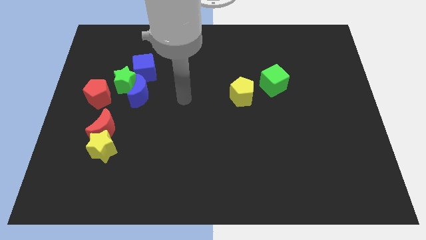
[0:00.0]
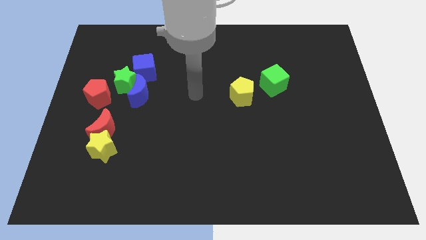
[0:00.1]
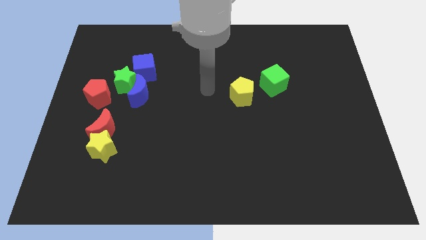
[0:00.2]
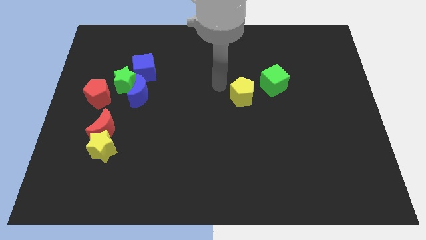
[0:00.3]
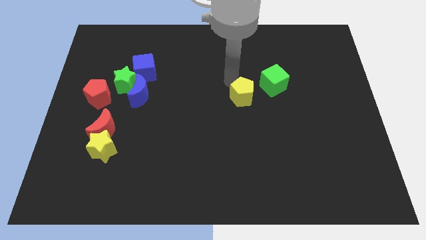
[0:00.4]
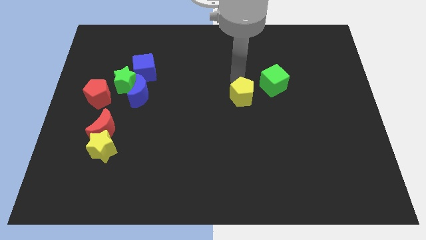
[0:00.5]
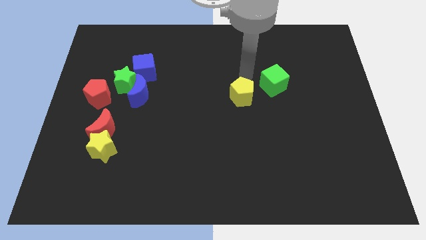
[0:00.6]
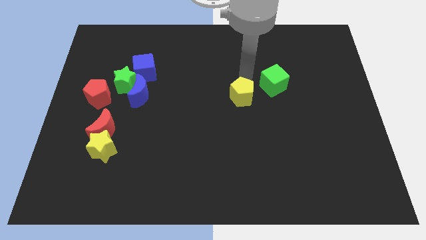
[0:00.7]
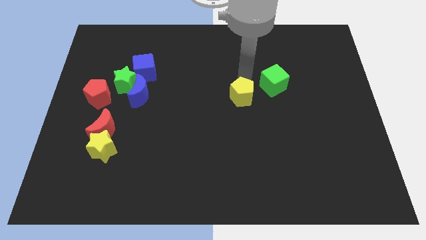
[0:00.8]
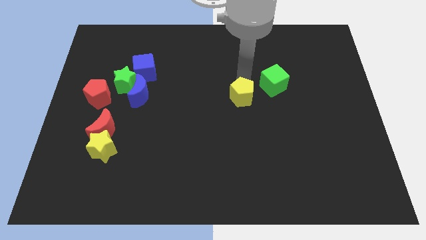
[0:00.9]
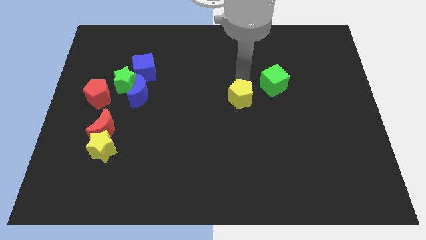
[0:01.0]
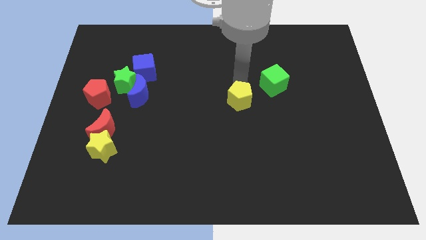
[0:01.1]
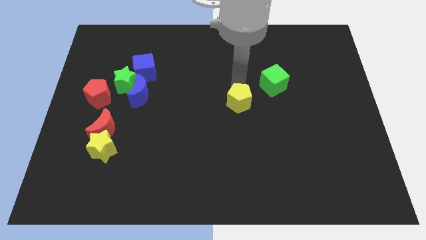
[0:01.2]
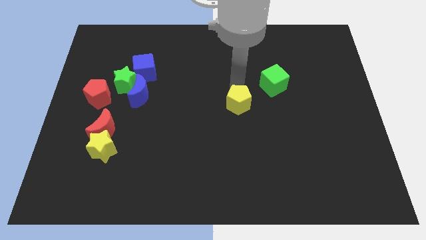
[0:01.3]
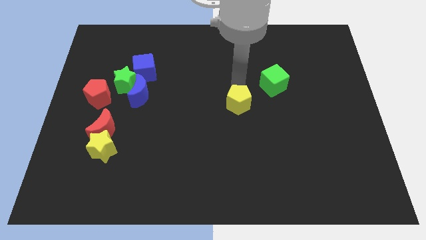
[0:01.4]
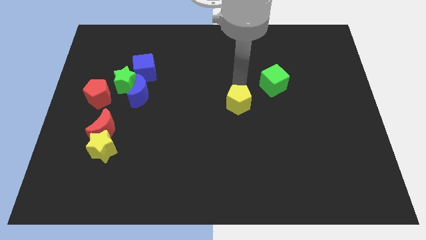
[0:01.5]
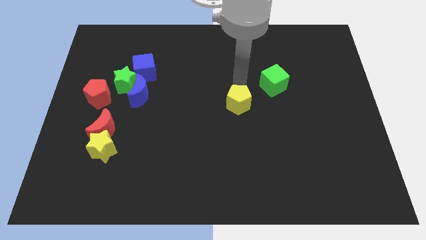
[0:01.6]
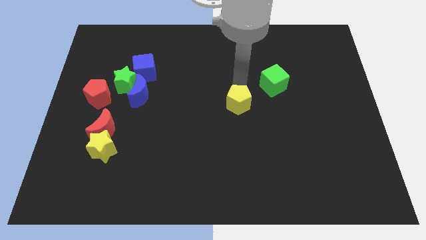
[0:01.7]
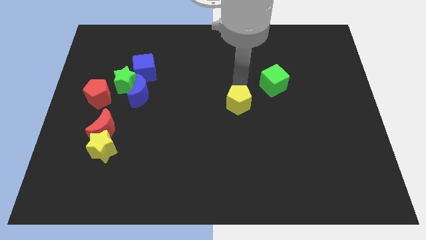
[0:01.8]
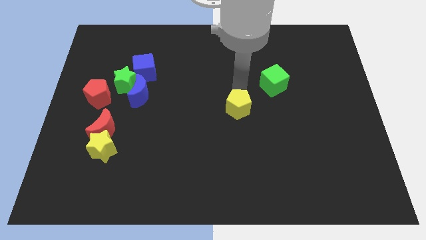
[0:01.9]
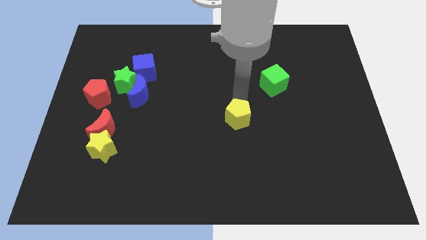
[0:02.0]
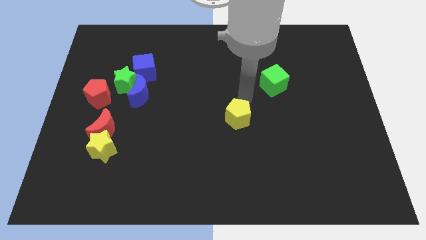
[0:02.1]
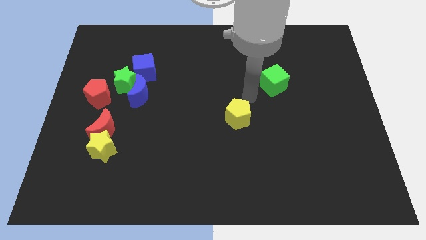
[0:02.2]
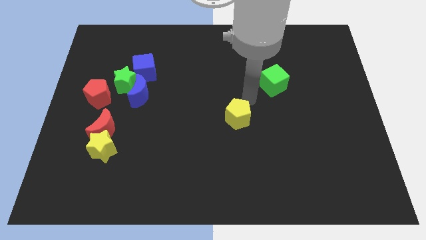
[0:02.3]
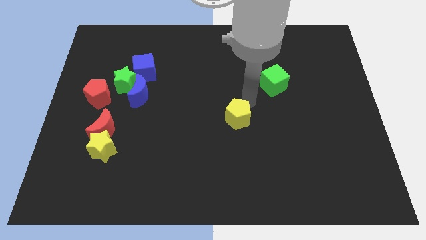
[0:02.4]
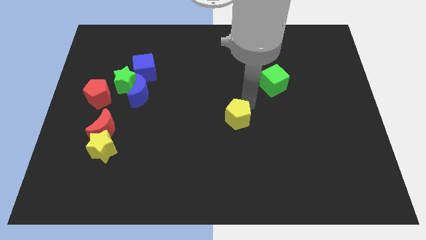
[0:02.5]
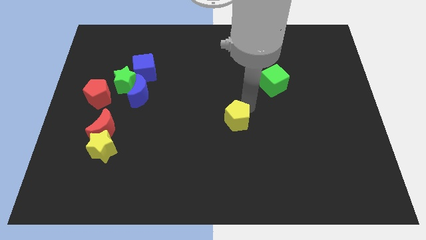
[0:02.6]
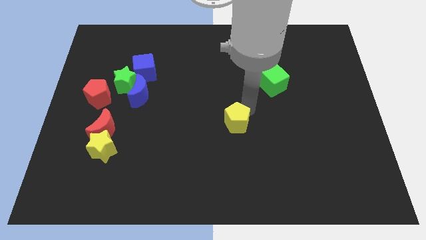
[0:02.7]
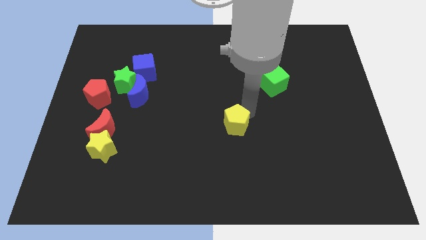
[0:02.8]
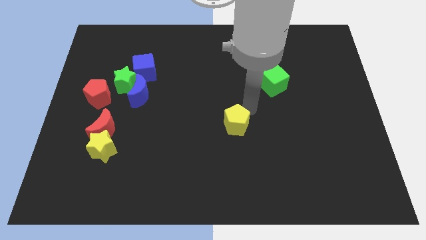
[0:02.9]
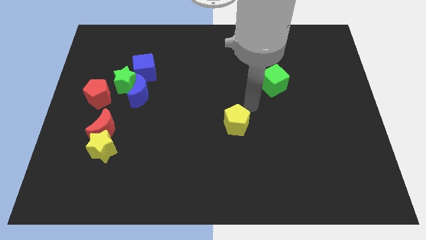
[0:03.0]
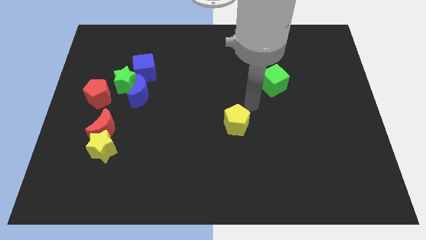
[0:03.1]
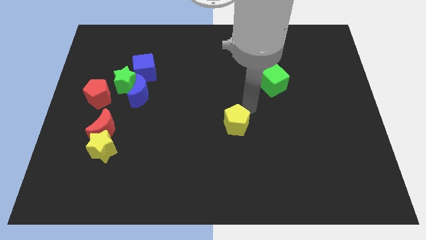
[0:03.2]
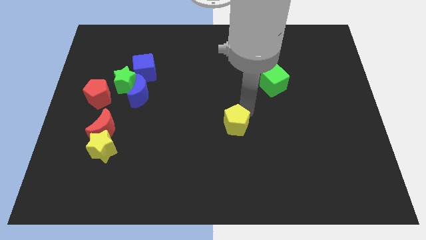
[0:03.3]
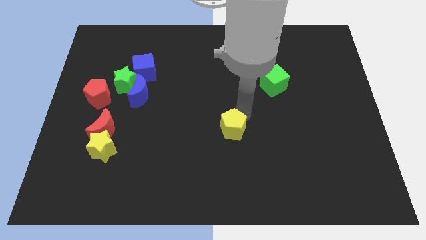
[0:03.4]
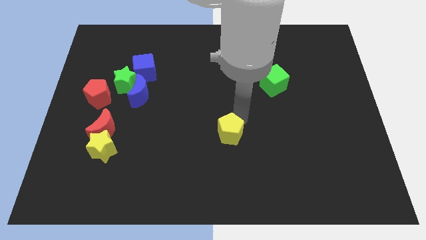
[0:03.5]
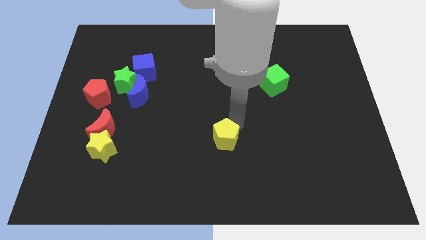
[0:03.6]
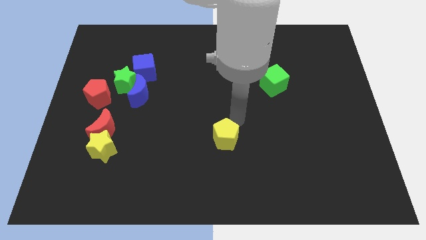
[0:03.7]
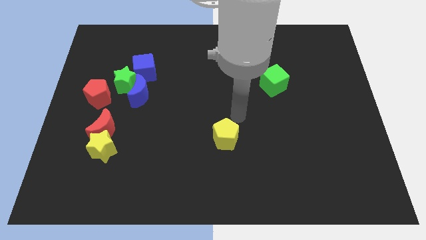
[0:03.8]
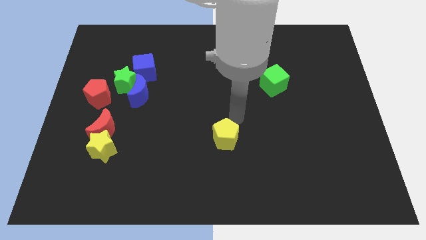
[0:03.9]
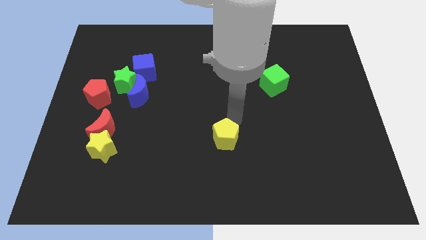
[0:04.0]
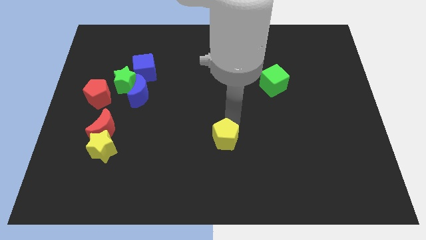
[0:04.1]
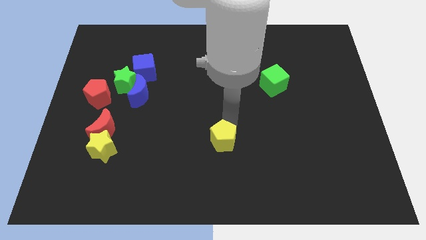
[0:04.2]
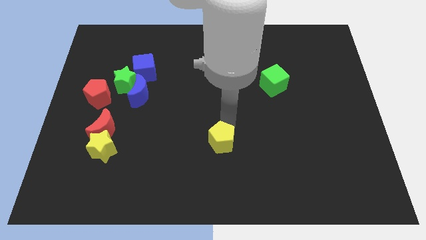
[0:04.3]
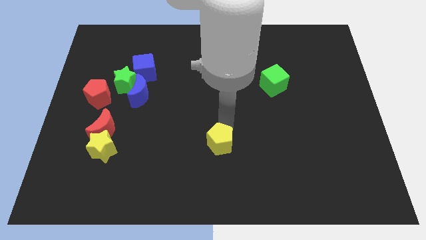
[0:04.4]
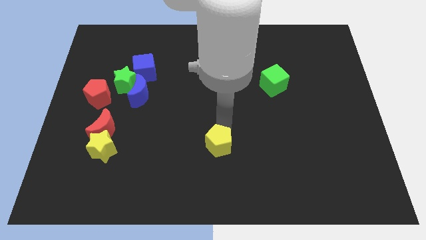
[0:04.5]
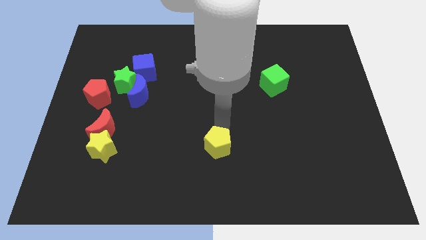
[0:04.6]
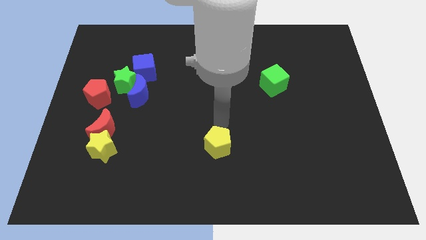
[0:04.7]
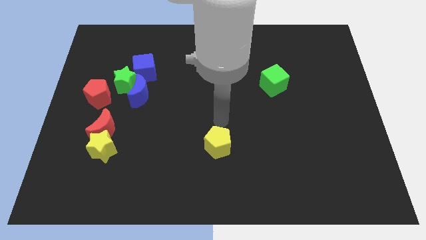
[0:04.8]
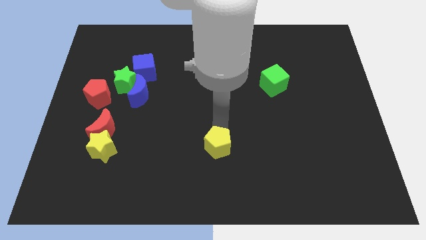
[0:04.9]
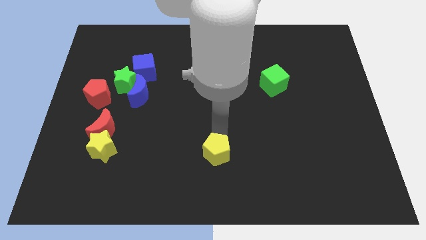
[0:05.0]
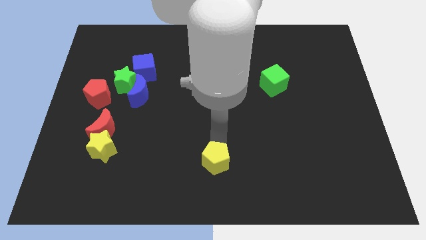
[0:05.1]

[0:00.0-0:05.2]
move the yellow pentagon to the bottom side

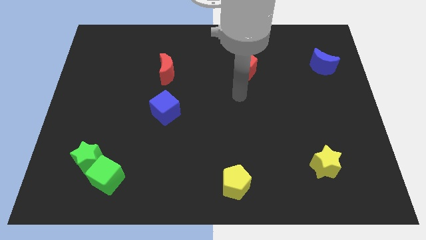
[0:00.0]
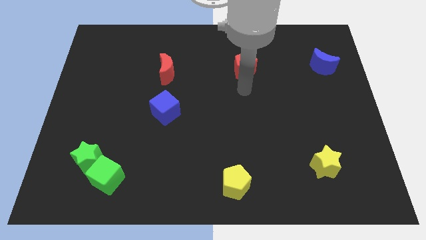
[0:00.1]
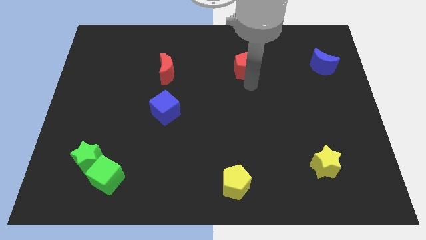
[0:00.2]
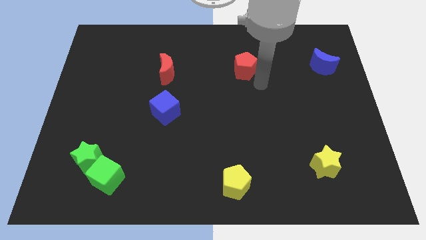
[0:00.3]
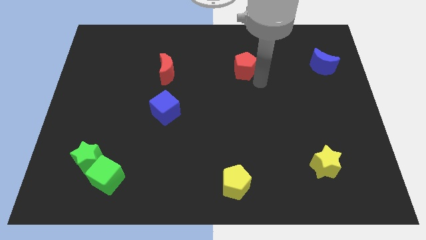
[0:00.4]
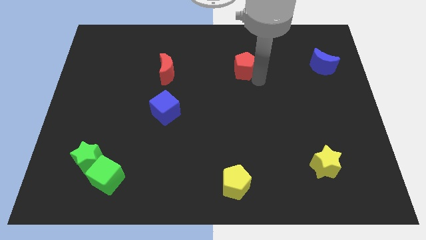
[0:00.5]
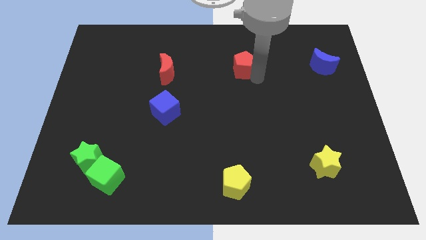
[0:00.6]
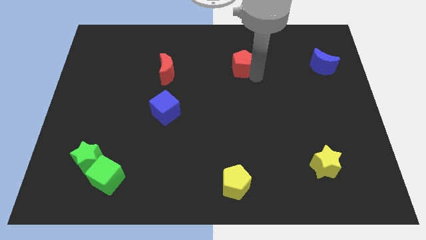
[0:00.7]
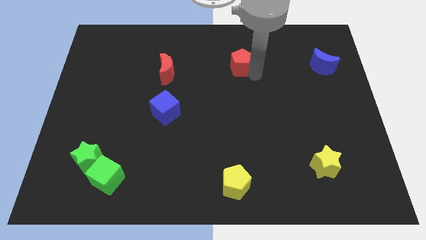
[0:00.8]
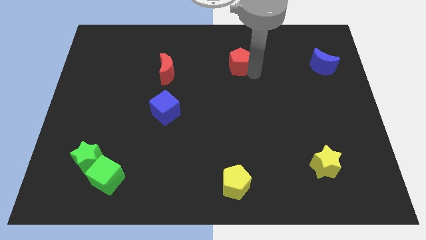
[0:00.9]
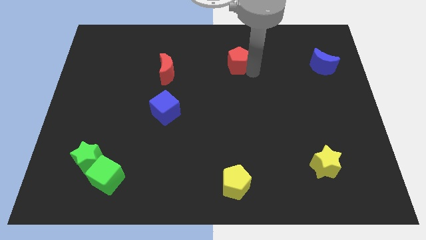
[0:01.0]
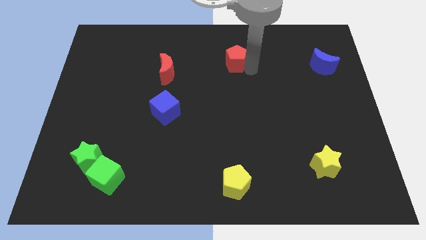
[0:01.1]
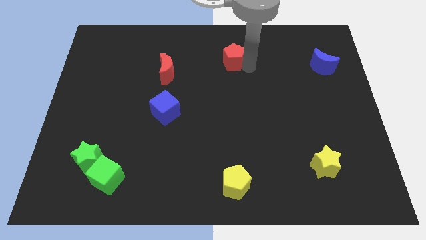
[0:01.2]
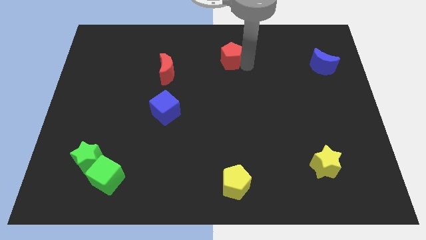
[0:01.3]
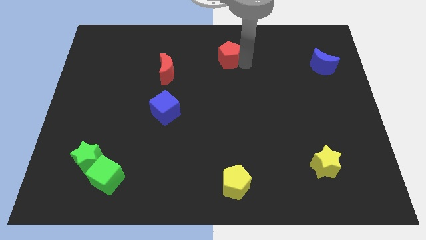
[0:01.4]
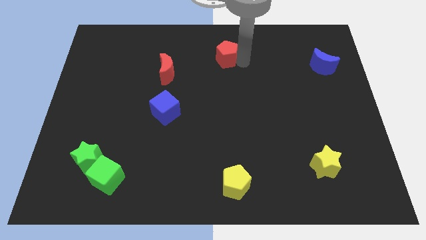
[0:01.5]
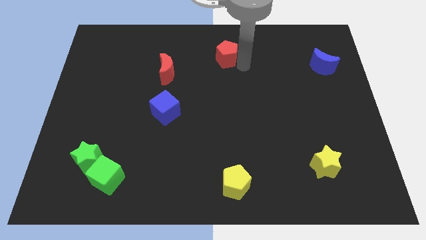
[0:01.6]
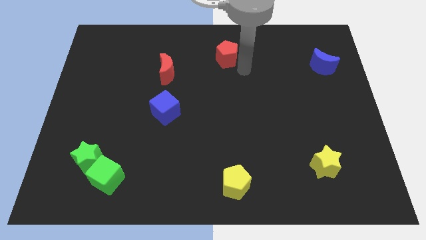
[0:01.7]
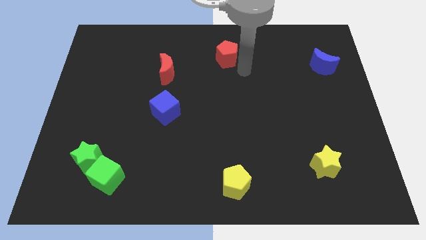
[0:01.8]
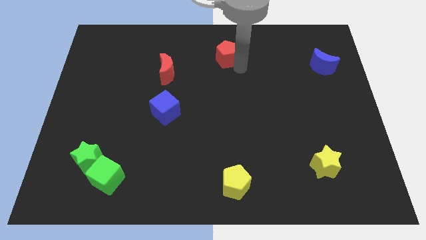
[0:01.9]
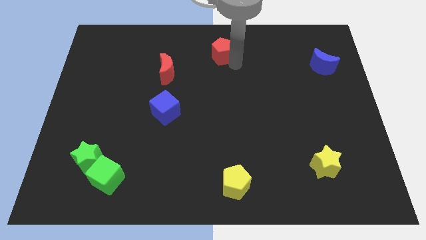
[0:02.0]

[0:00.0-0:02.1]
move the red pentagon to the top
